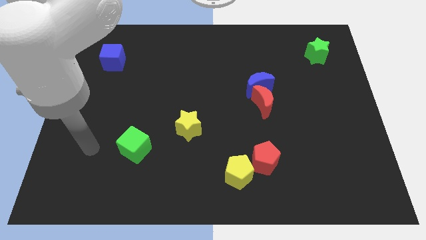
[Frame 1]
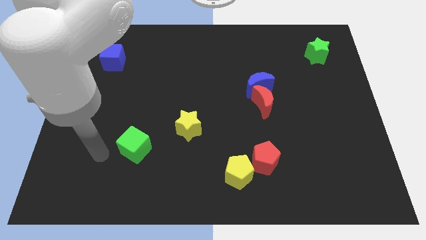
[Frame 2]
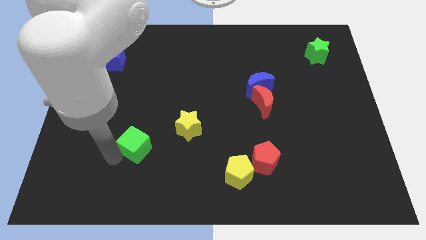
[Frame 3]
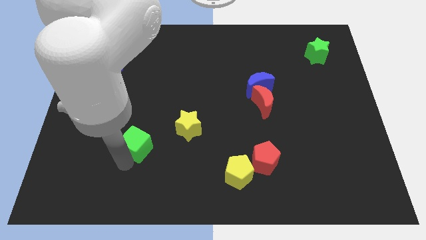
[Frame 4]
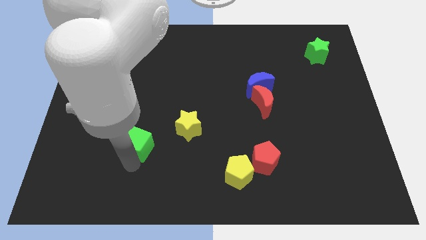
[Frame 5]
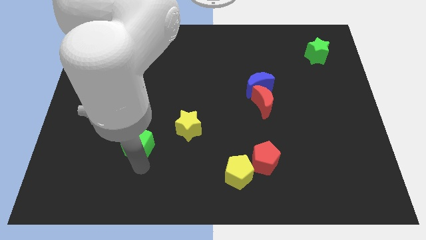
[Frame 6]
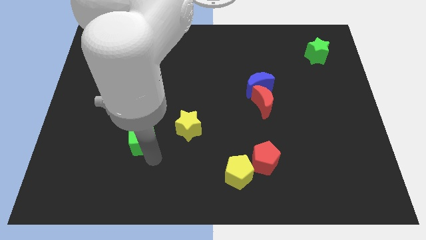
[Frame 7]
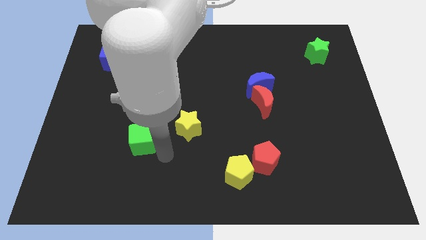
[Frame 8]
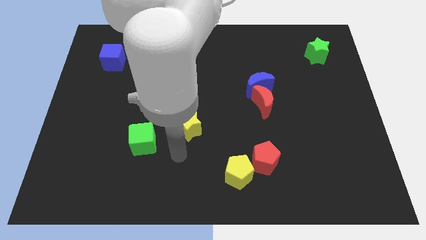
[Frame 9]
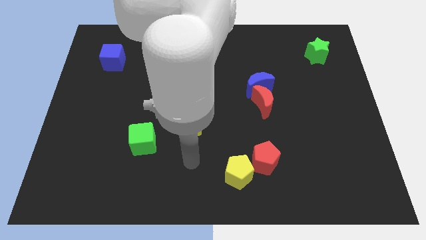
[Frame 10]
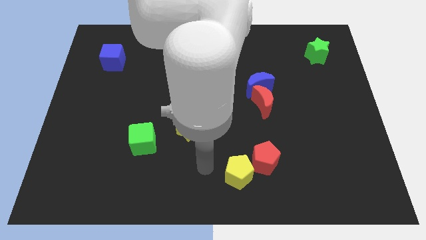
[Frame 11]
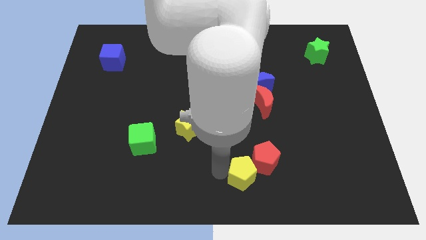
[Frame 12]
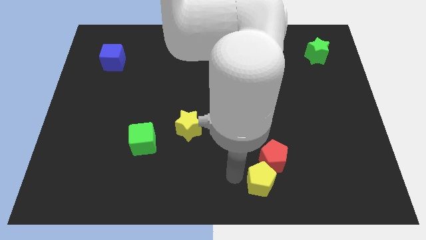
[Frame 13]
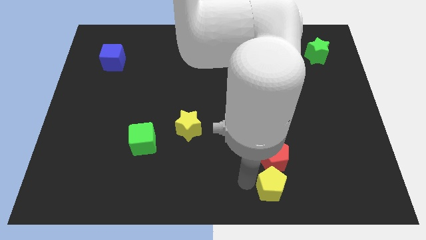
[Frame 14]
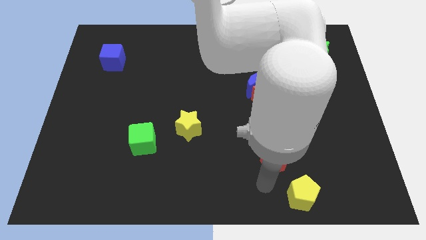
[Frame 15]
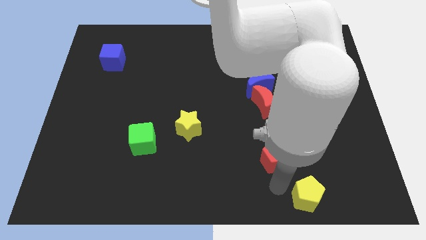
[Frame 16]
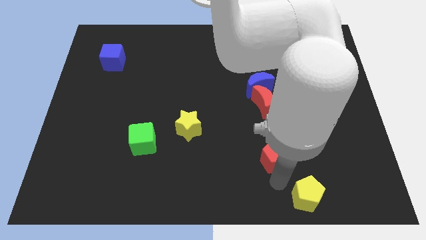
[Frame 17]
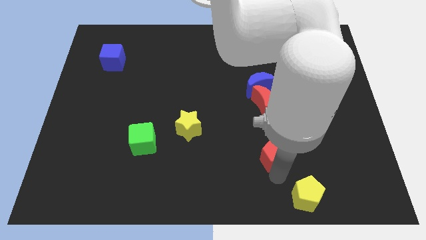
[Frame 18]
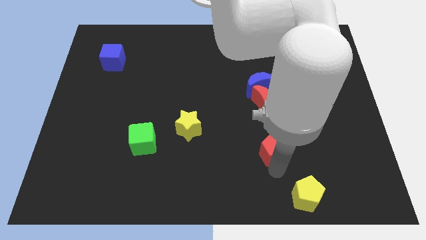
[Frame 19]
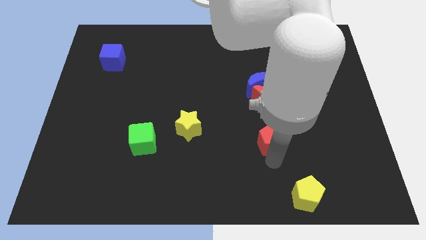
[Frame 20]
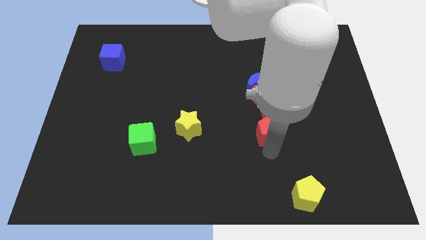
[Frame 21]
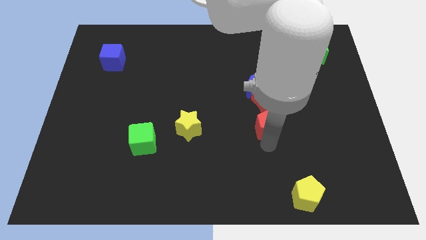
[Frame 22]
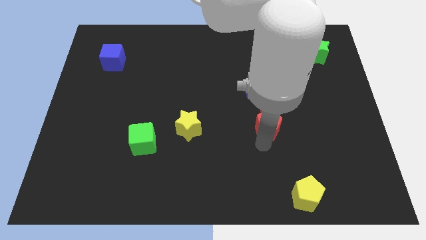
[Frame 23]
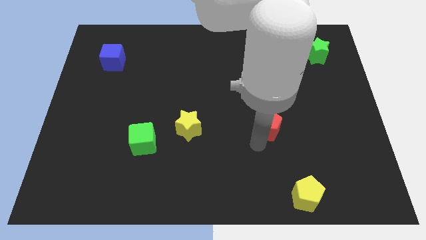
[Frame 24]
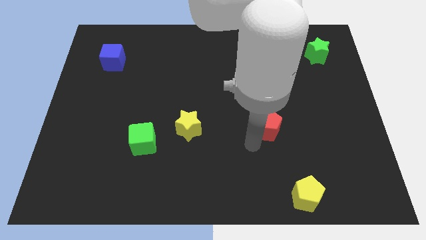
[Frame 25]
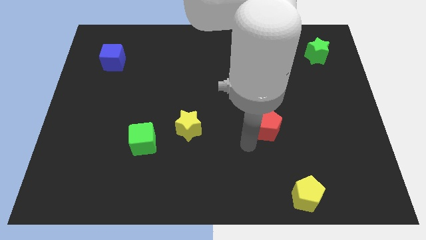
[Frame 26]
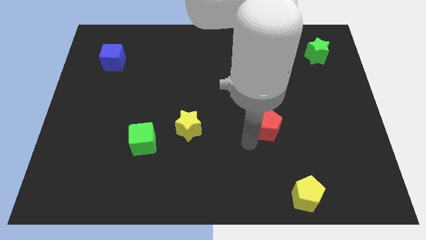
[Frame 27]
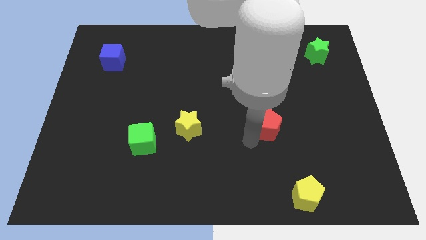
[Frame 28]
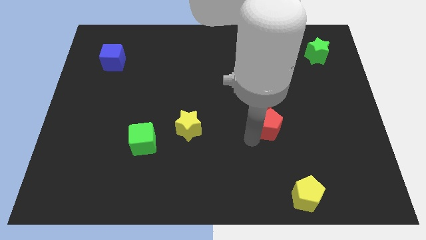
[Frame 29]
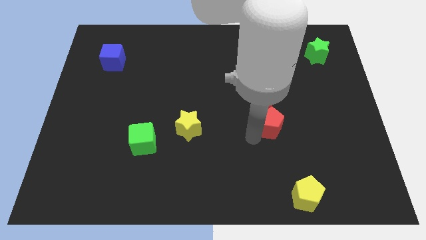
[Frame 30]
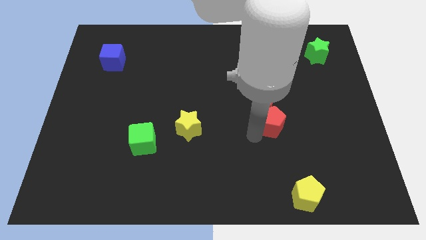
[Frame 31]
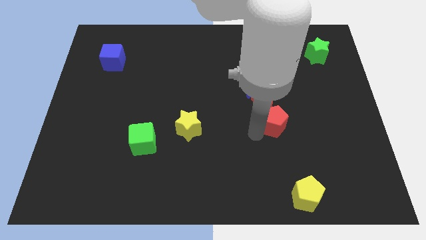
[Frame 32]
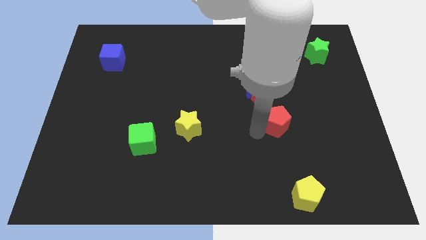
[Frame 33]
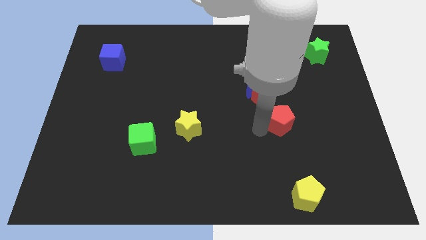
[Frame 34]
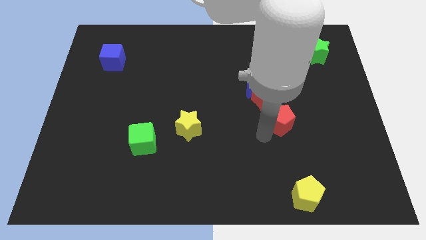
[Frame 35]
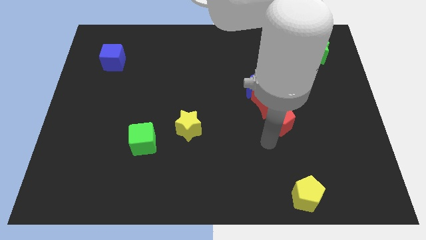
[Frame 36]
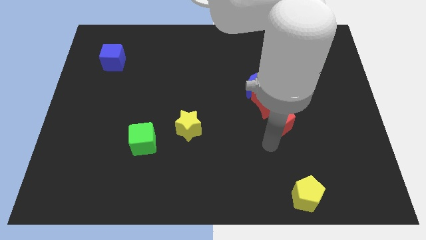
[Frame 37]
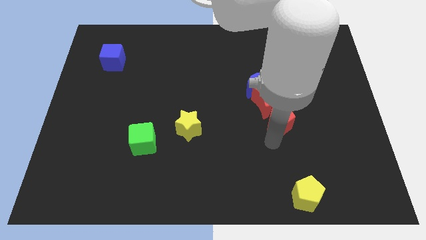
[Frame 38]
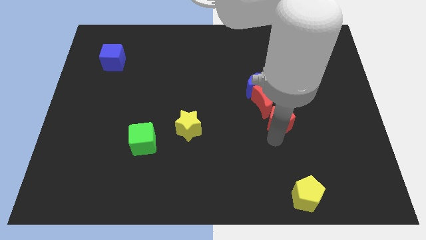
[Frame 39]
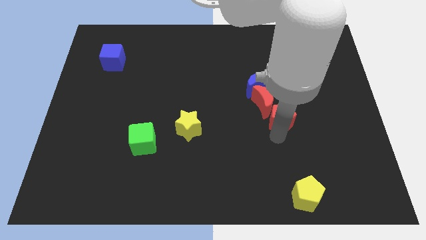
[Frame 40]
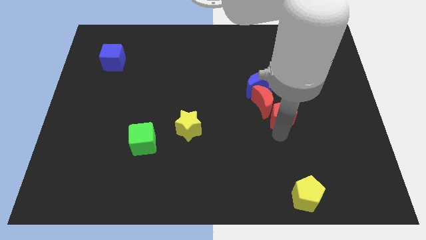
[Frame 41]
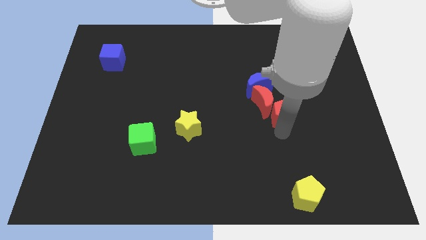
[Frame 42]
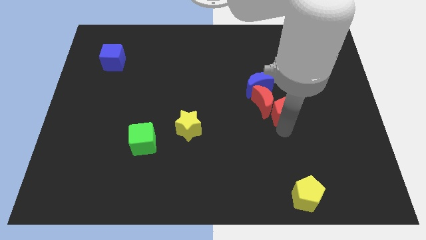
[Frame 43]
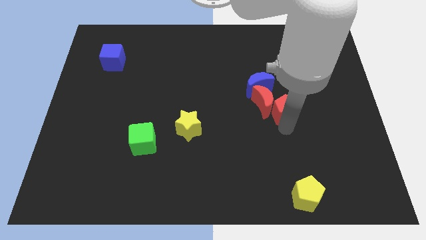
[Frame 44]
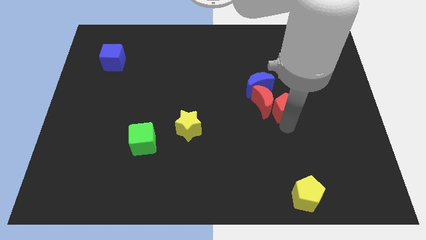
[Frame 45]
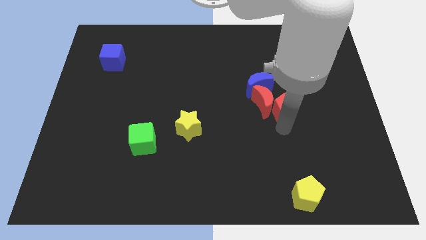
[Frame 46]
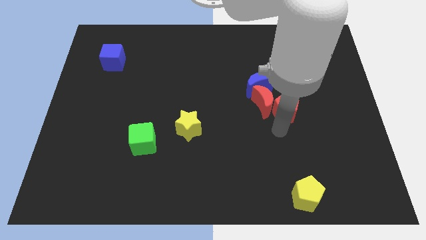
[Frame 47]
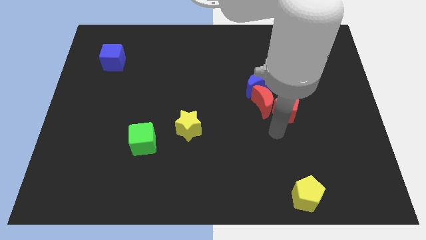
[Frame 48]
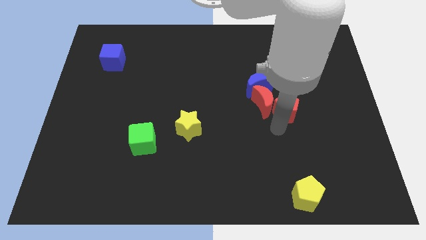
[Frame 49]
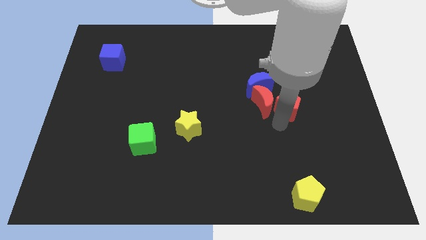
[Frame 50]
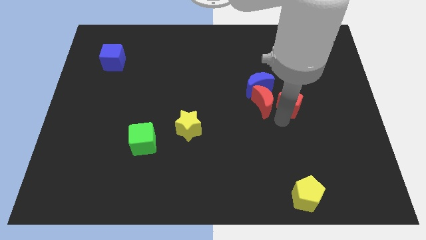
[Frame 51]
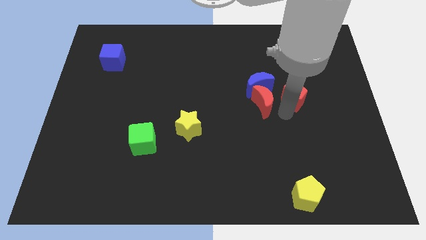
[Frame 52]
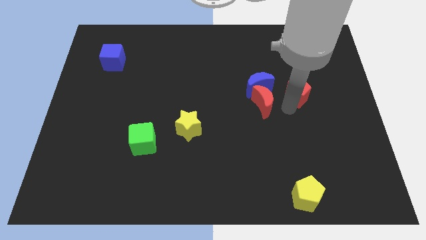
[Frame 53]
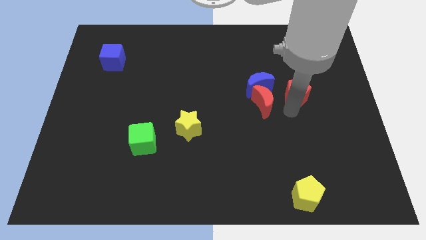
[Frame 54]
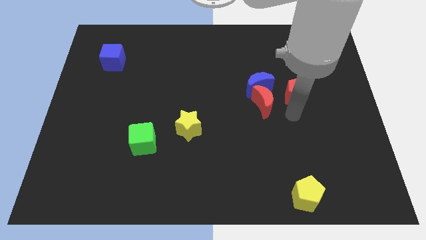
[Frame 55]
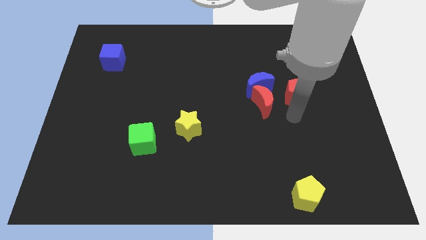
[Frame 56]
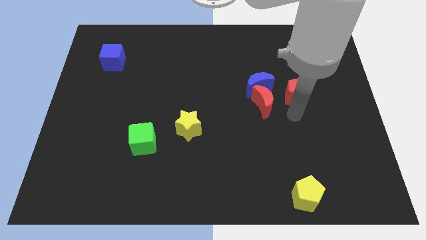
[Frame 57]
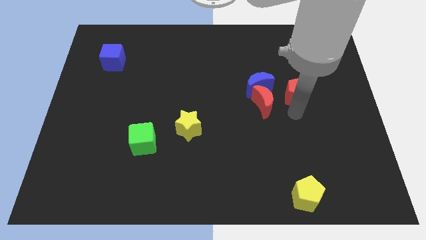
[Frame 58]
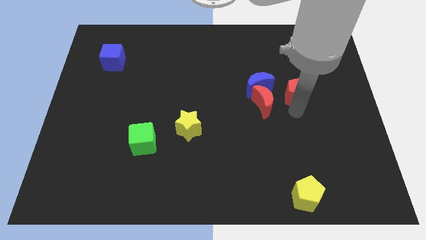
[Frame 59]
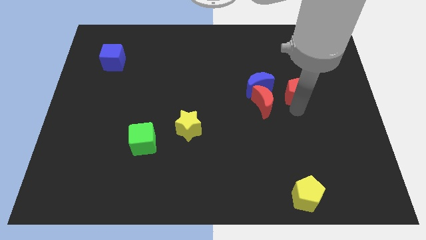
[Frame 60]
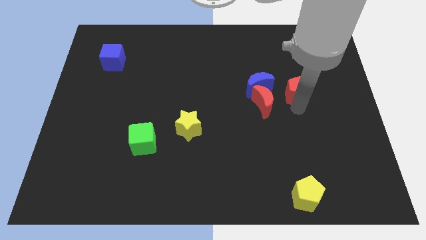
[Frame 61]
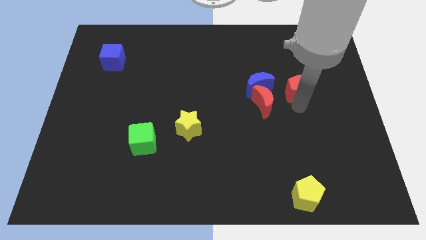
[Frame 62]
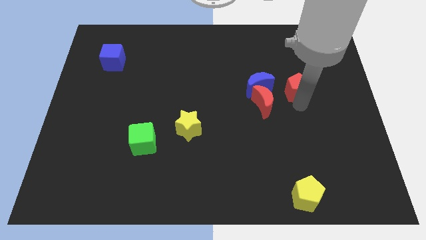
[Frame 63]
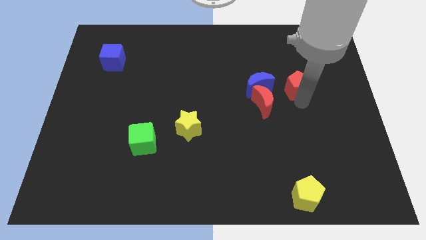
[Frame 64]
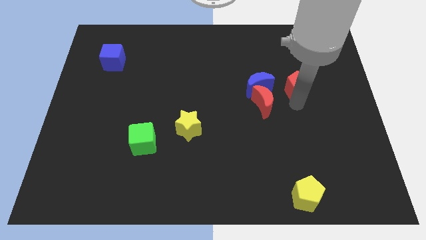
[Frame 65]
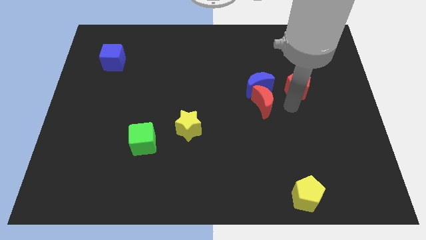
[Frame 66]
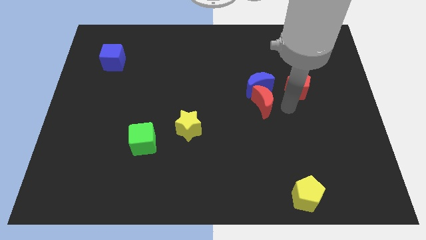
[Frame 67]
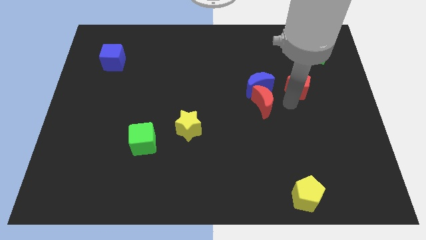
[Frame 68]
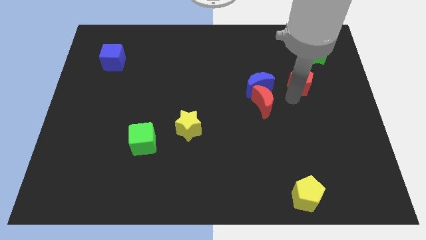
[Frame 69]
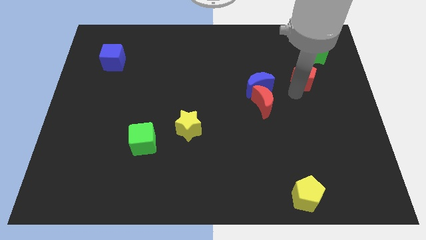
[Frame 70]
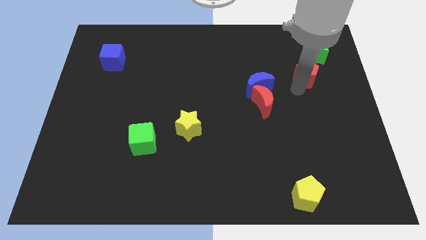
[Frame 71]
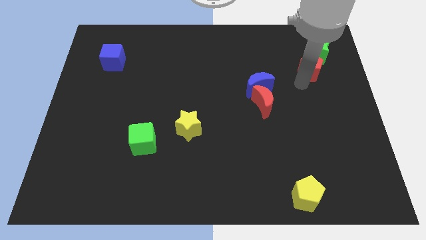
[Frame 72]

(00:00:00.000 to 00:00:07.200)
push the red pentagon to the green star
